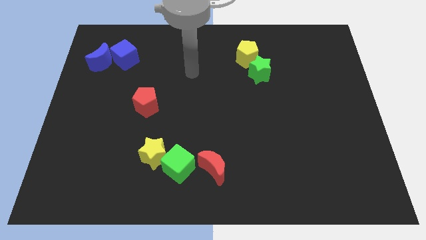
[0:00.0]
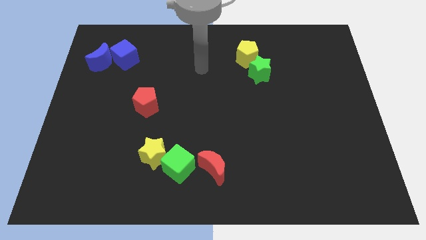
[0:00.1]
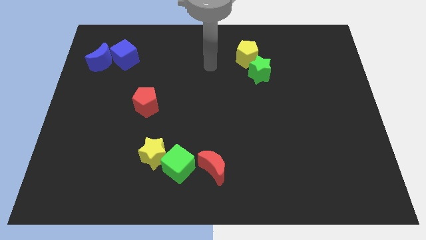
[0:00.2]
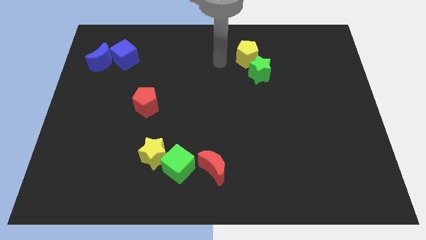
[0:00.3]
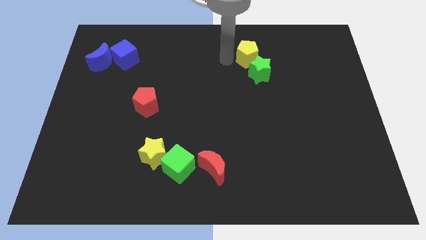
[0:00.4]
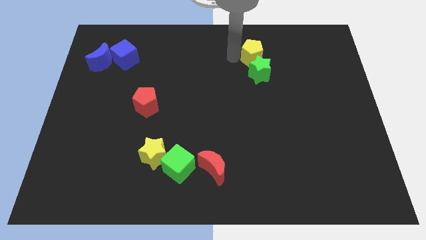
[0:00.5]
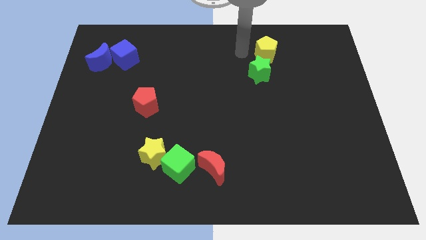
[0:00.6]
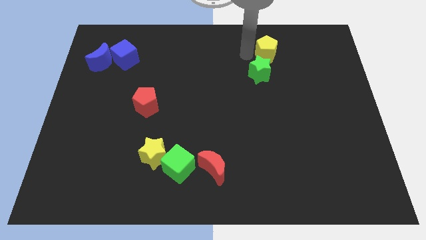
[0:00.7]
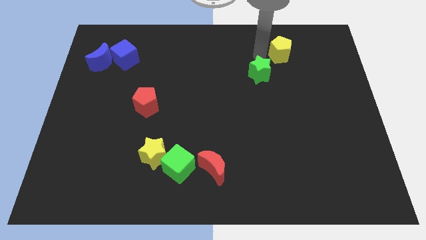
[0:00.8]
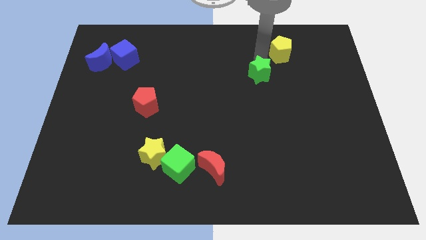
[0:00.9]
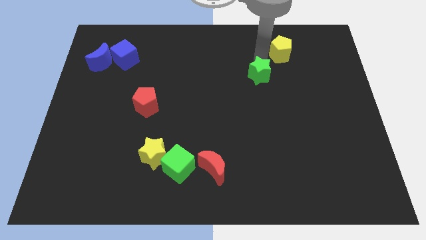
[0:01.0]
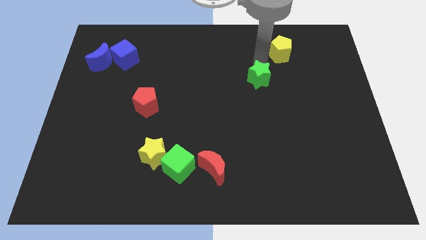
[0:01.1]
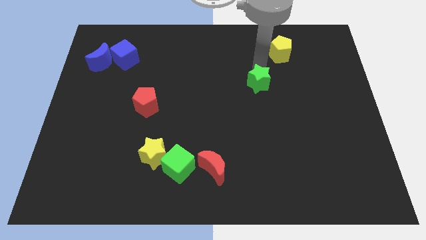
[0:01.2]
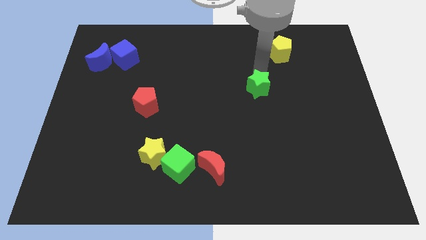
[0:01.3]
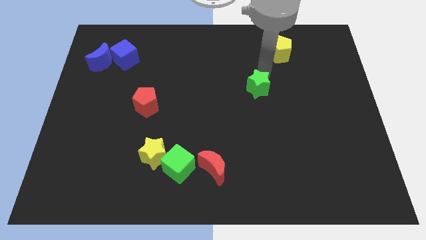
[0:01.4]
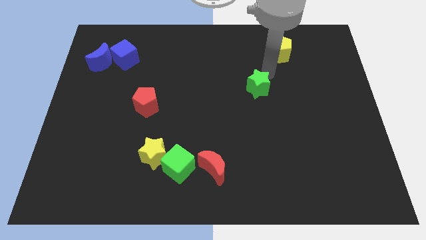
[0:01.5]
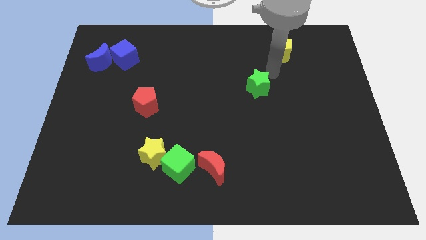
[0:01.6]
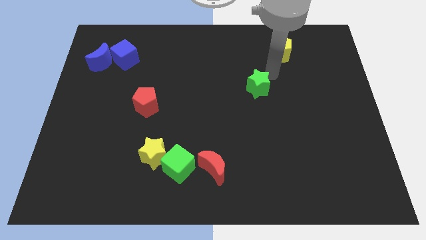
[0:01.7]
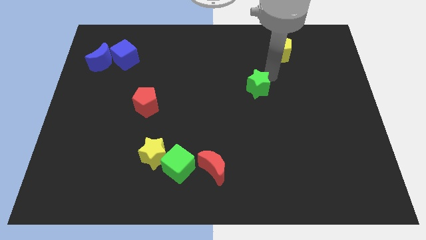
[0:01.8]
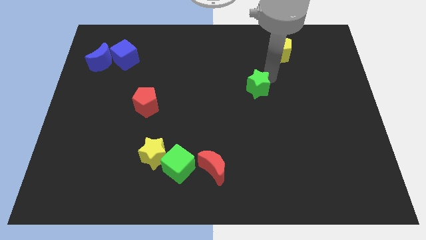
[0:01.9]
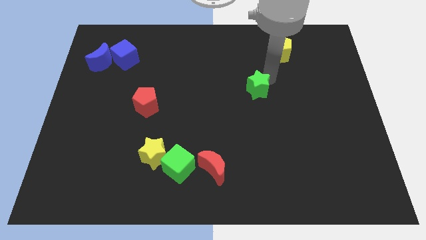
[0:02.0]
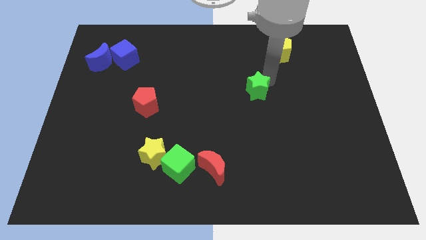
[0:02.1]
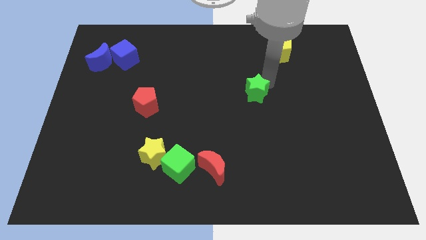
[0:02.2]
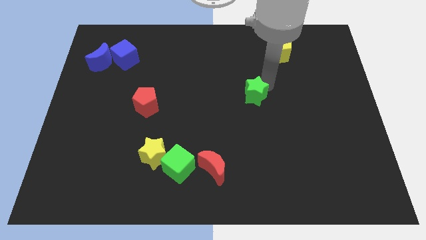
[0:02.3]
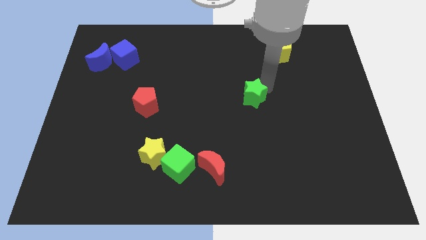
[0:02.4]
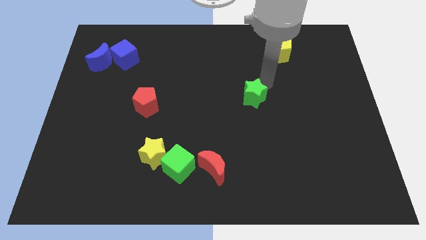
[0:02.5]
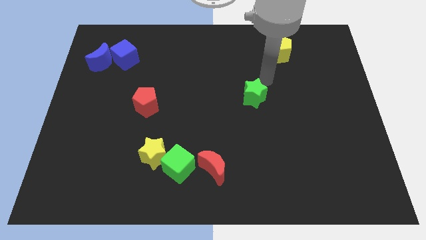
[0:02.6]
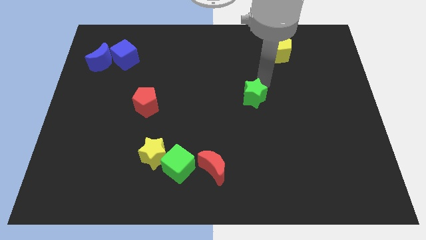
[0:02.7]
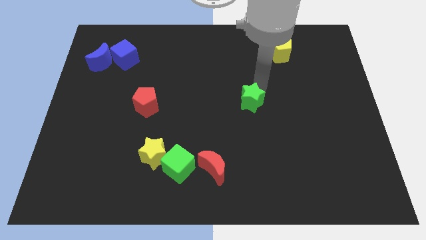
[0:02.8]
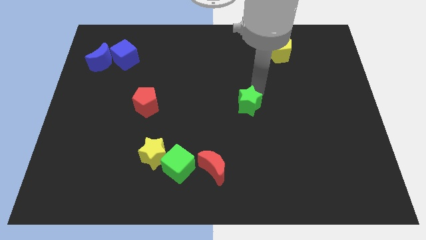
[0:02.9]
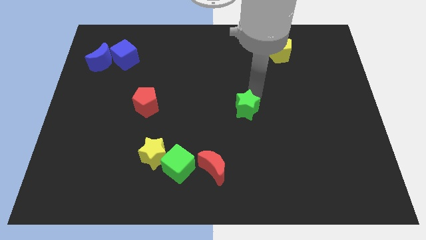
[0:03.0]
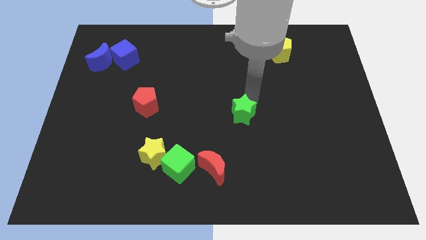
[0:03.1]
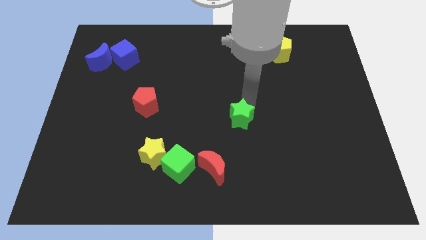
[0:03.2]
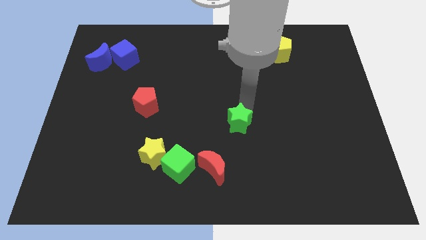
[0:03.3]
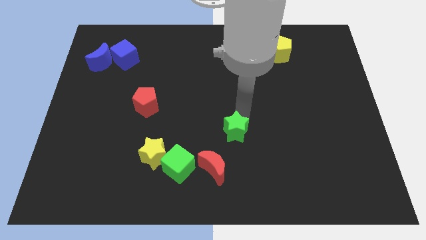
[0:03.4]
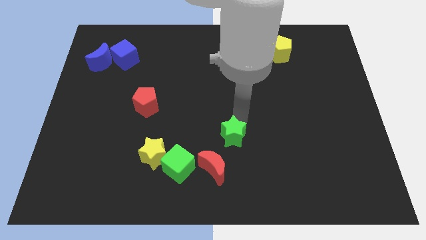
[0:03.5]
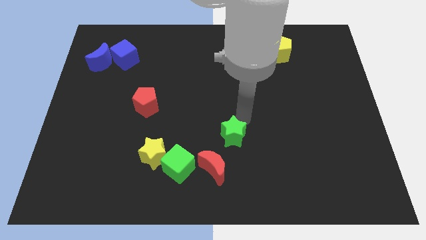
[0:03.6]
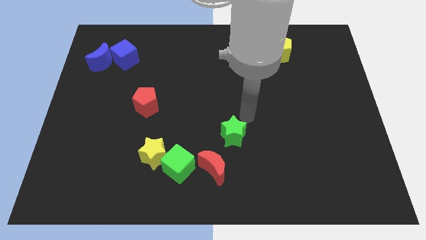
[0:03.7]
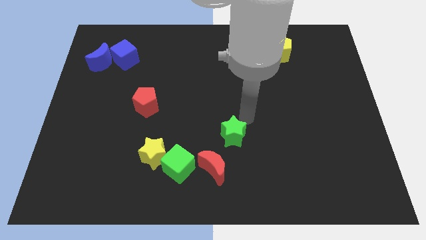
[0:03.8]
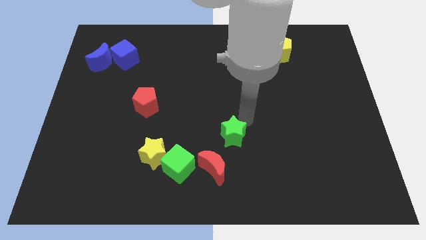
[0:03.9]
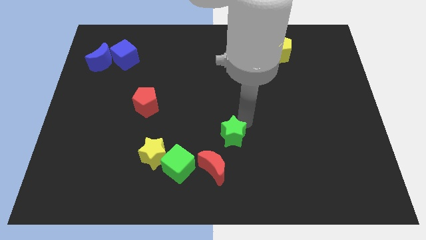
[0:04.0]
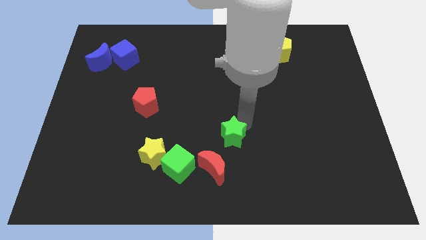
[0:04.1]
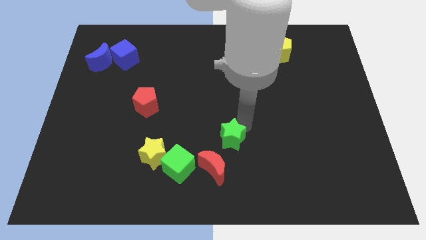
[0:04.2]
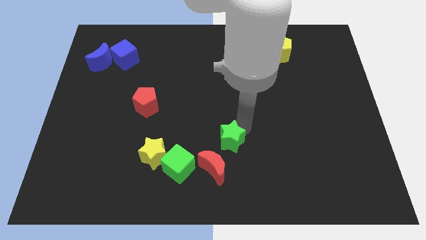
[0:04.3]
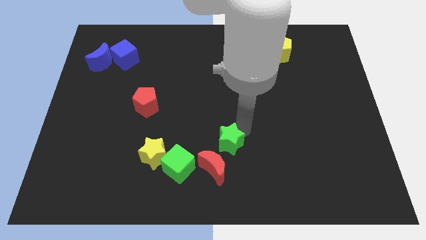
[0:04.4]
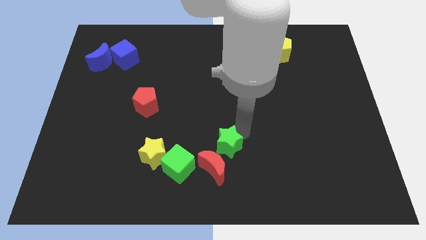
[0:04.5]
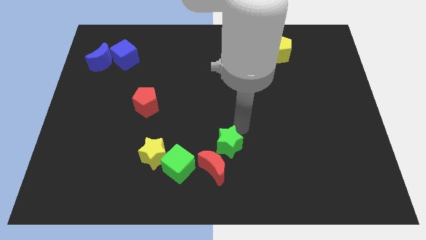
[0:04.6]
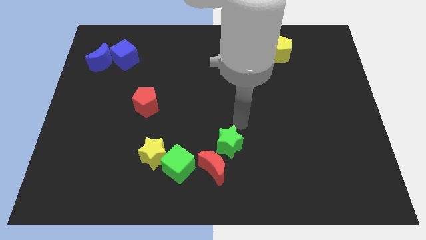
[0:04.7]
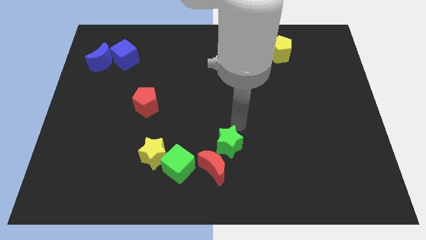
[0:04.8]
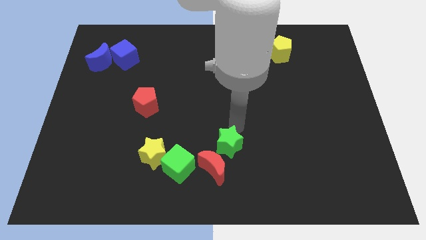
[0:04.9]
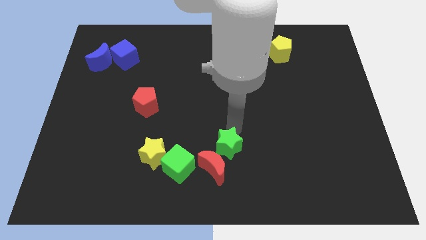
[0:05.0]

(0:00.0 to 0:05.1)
put the green star close to the red moon

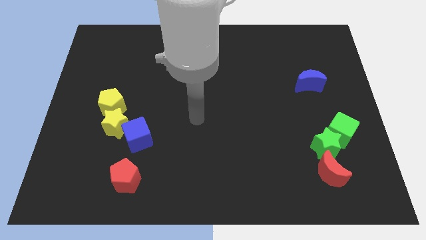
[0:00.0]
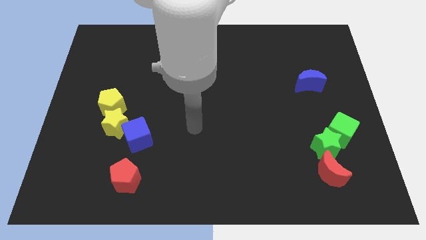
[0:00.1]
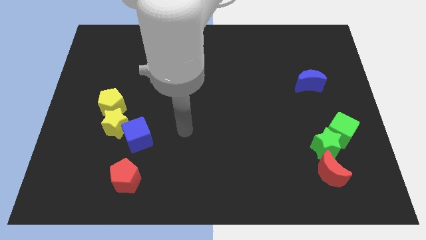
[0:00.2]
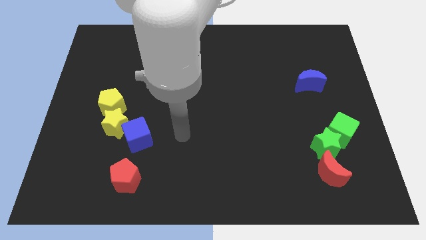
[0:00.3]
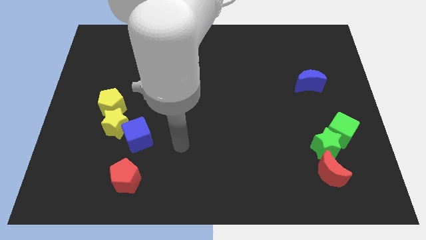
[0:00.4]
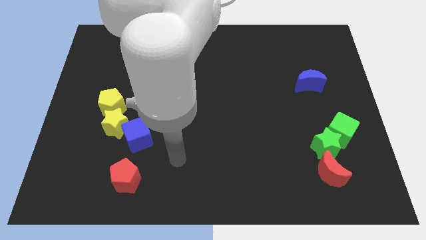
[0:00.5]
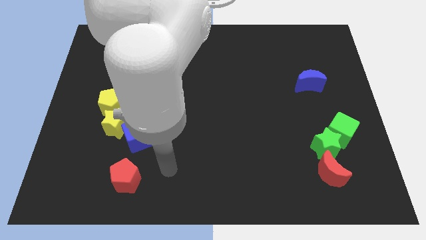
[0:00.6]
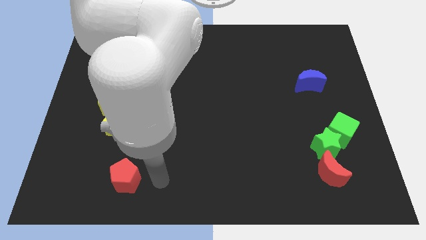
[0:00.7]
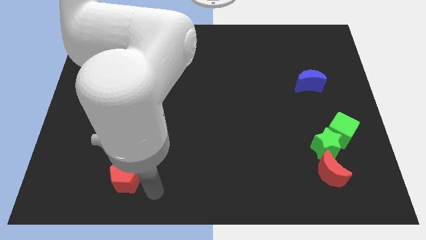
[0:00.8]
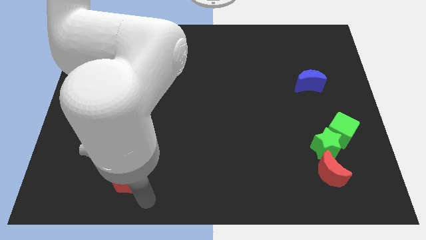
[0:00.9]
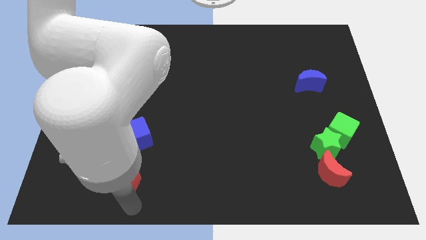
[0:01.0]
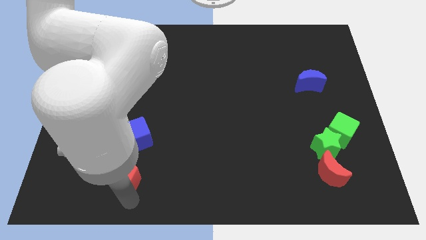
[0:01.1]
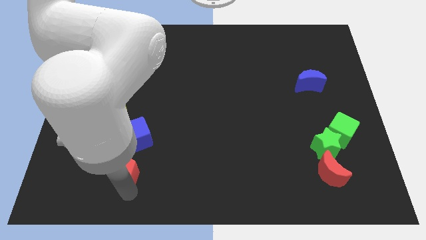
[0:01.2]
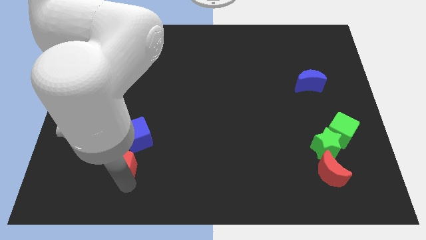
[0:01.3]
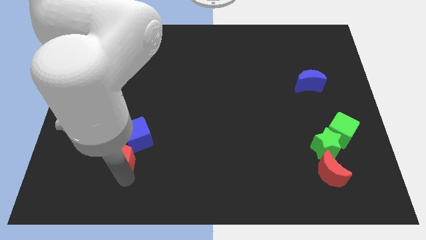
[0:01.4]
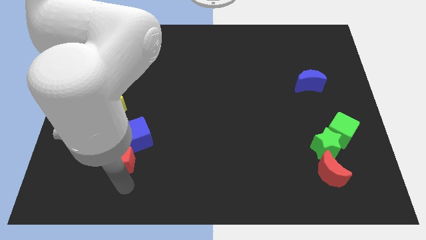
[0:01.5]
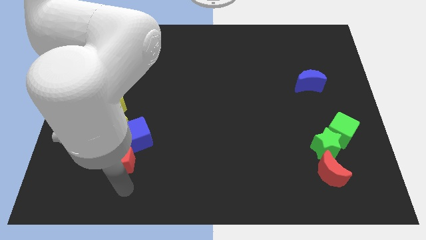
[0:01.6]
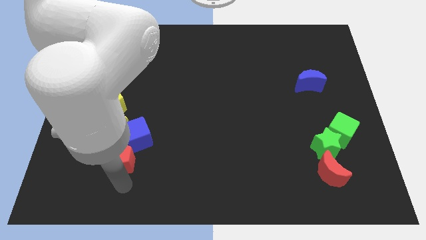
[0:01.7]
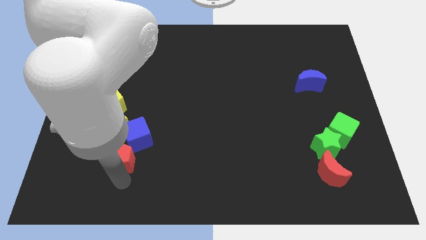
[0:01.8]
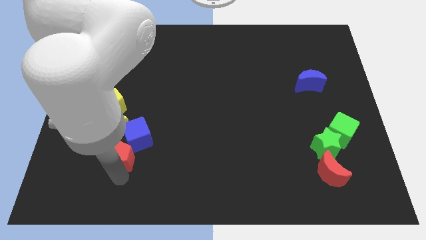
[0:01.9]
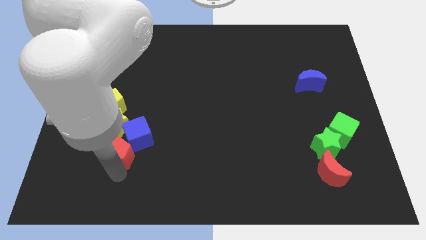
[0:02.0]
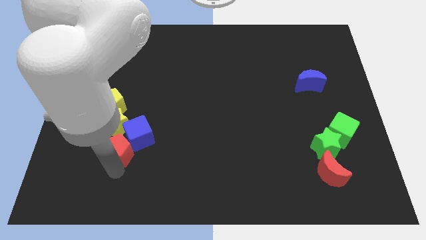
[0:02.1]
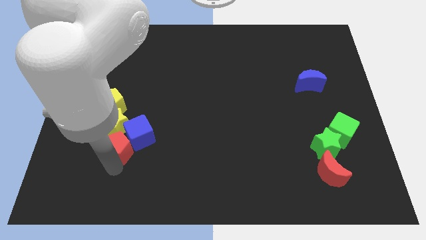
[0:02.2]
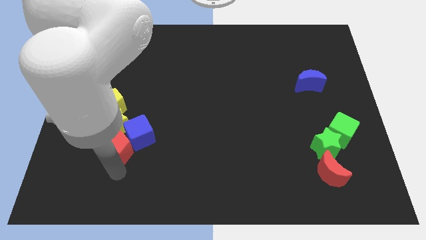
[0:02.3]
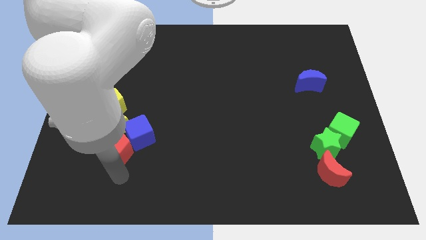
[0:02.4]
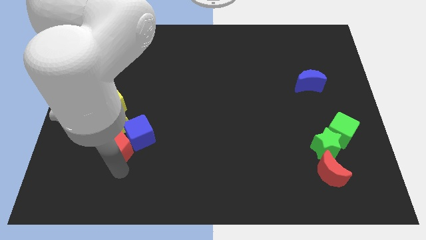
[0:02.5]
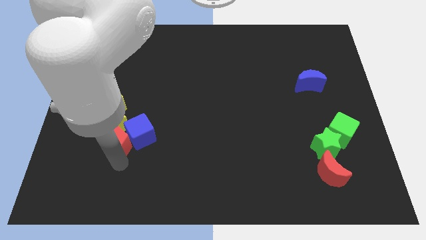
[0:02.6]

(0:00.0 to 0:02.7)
slide the red pentagon towards the yellow star
